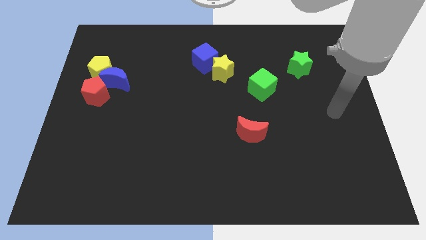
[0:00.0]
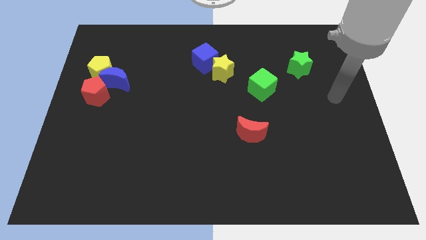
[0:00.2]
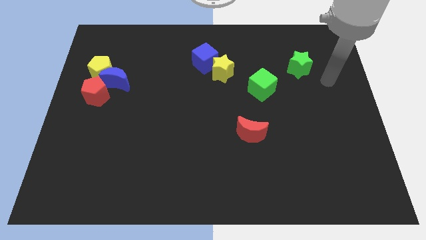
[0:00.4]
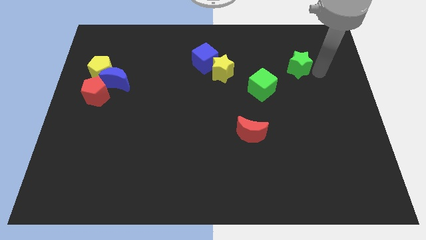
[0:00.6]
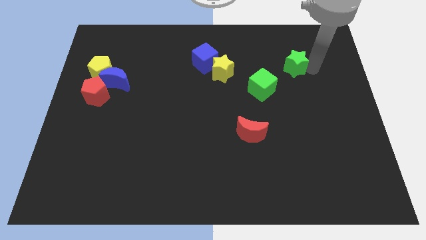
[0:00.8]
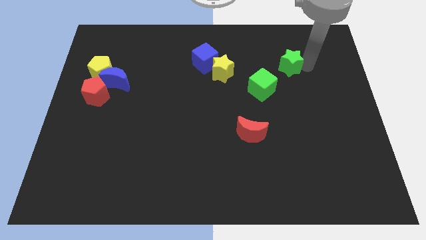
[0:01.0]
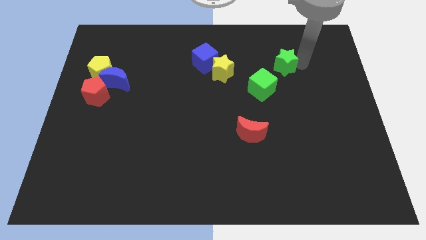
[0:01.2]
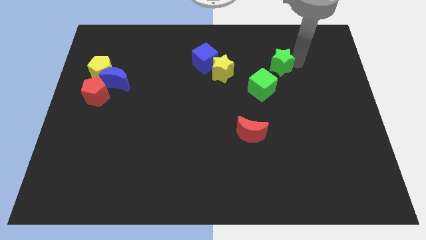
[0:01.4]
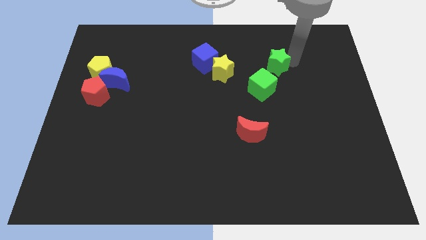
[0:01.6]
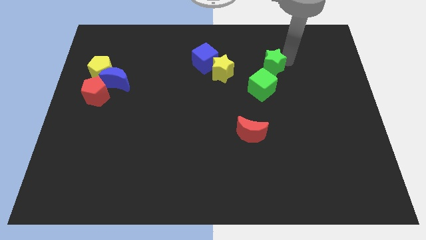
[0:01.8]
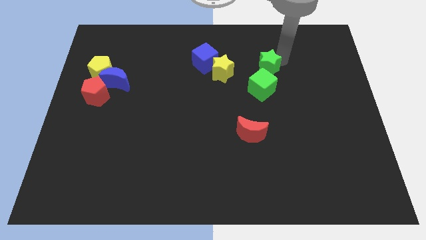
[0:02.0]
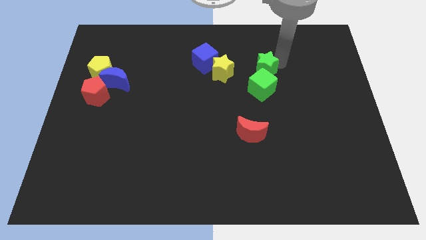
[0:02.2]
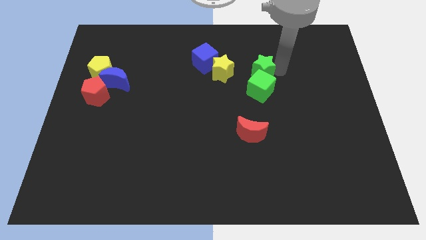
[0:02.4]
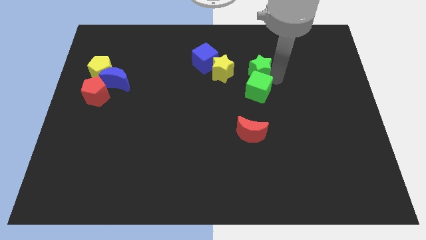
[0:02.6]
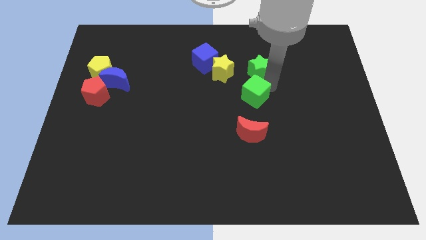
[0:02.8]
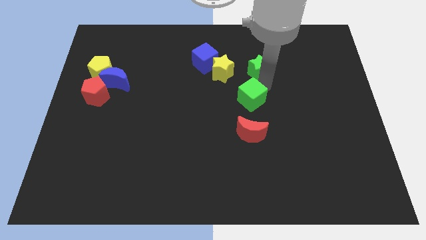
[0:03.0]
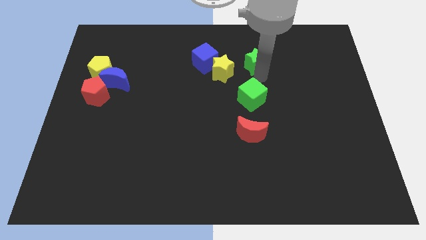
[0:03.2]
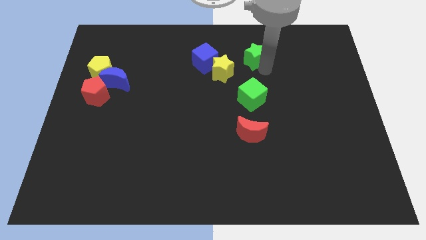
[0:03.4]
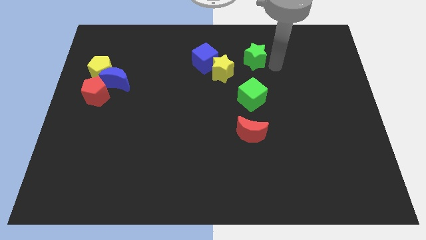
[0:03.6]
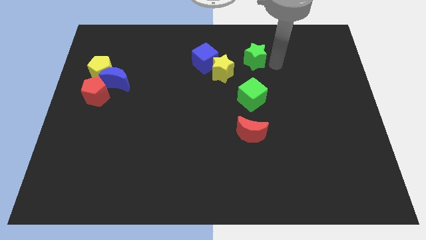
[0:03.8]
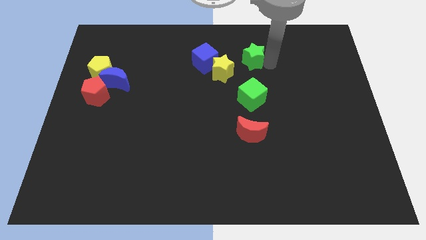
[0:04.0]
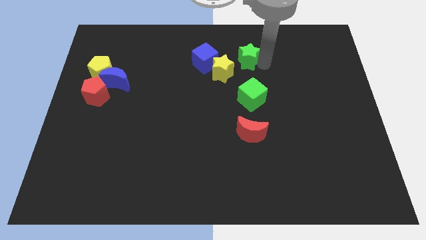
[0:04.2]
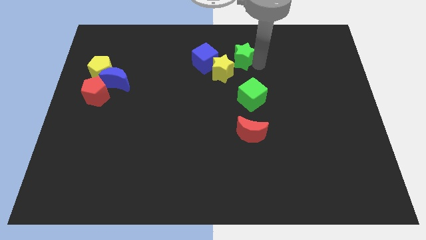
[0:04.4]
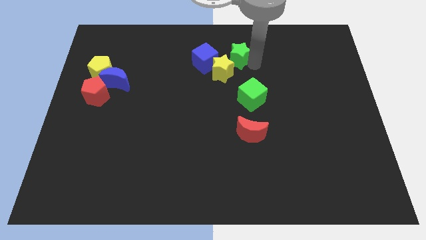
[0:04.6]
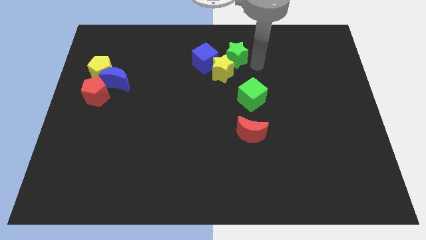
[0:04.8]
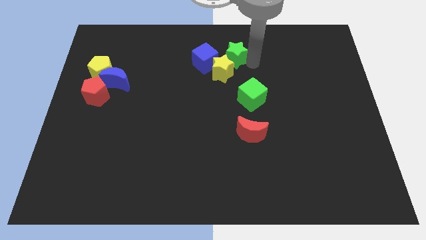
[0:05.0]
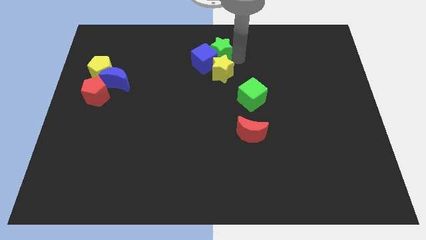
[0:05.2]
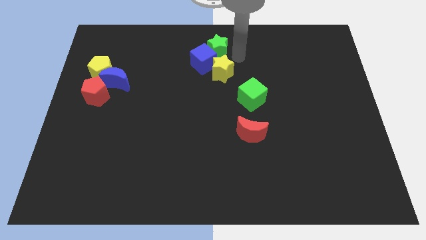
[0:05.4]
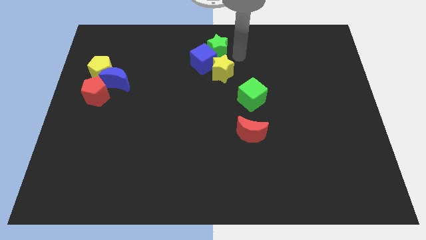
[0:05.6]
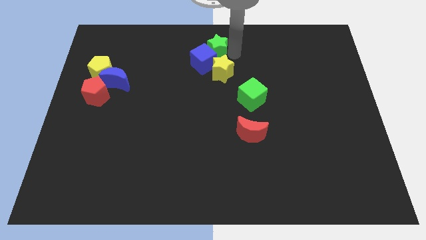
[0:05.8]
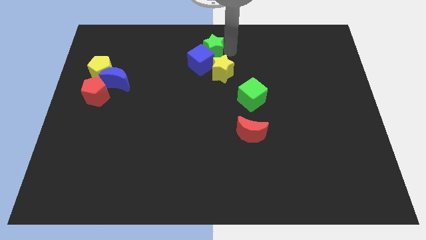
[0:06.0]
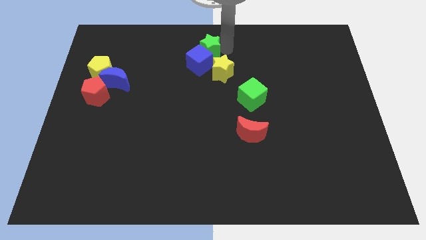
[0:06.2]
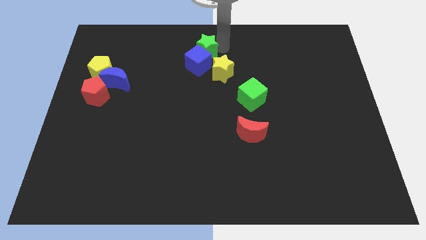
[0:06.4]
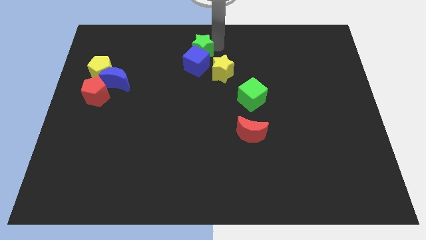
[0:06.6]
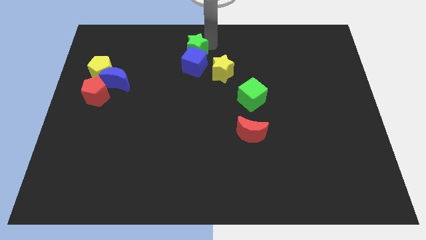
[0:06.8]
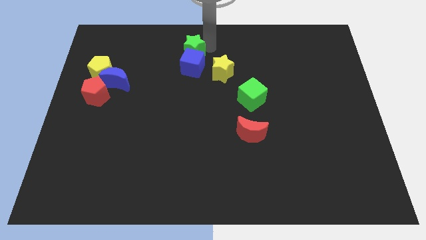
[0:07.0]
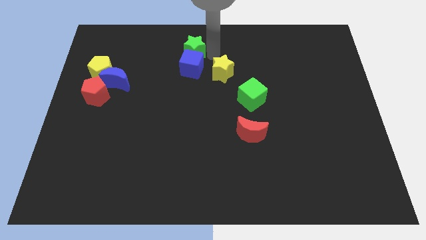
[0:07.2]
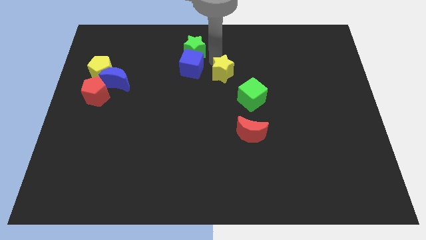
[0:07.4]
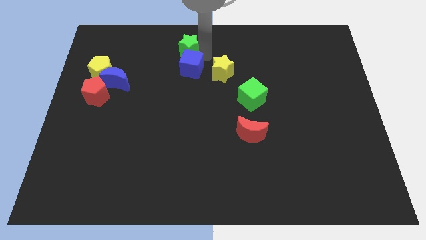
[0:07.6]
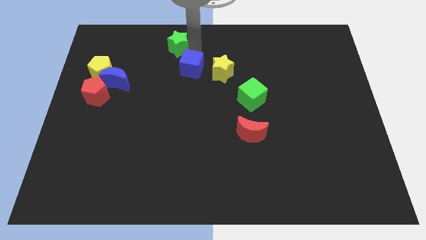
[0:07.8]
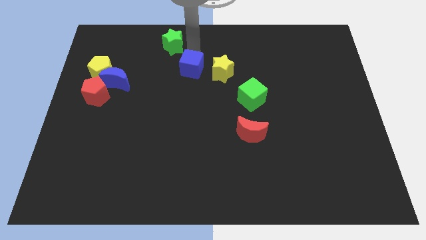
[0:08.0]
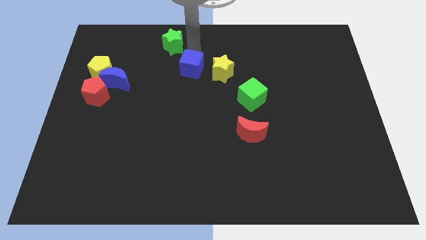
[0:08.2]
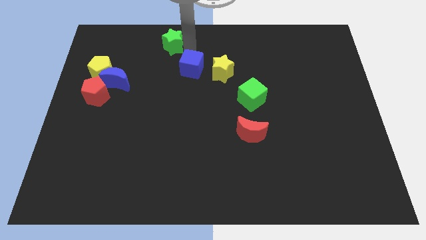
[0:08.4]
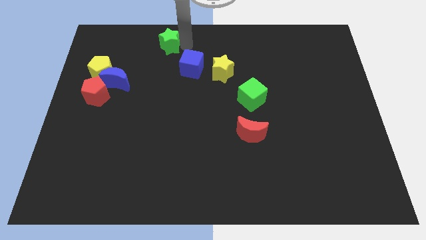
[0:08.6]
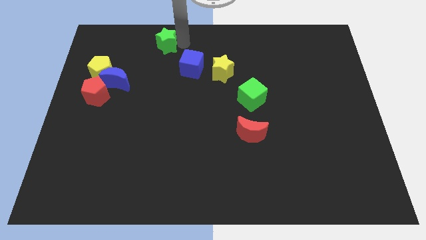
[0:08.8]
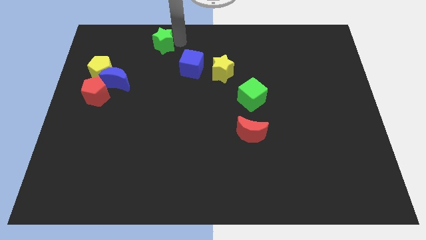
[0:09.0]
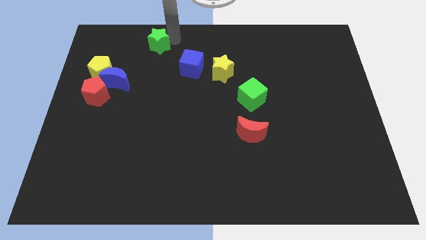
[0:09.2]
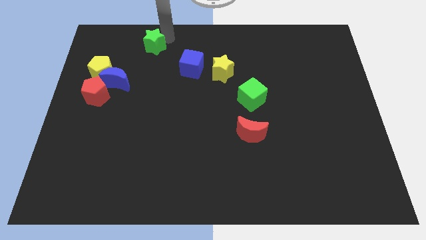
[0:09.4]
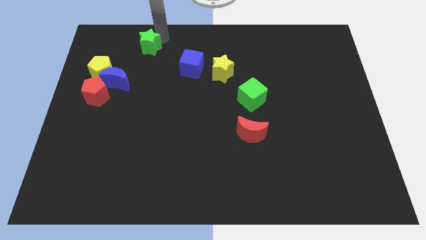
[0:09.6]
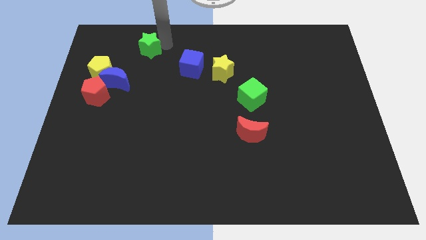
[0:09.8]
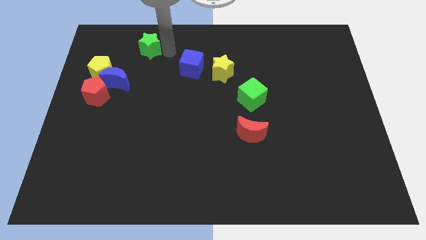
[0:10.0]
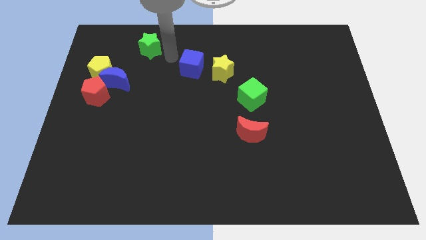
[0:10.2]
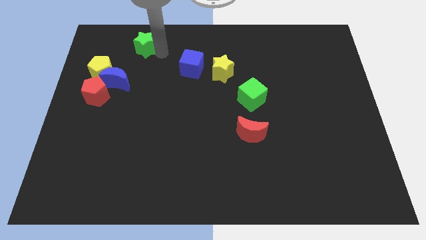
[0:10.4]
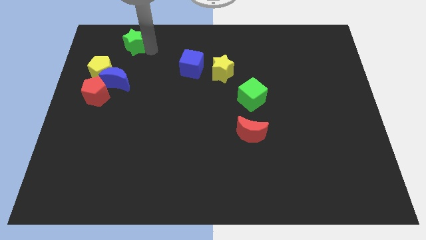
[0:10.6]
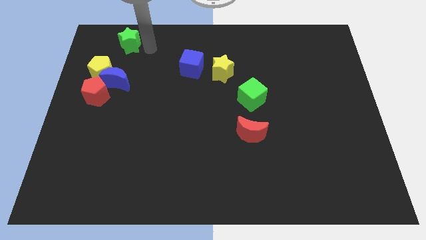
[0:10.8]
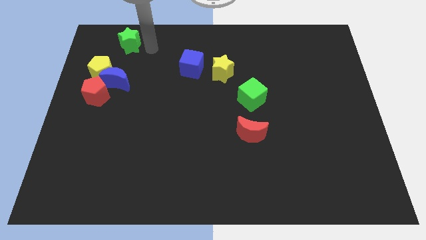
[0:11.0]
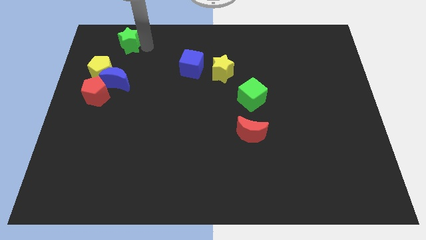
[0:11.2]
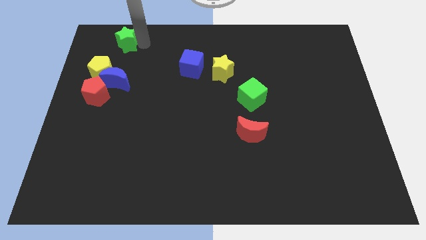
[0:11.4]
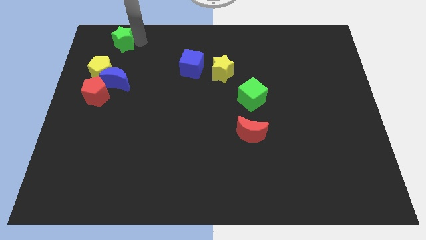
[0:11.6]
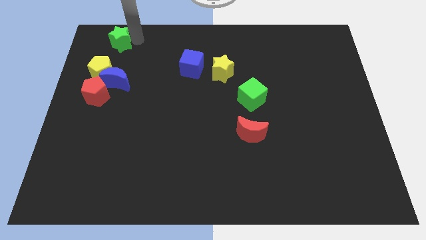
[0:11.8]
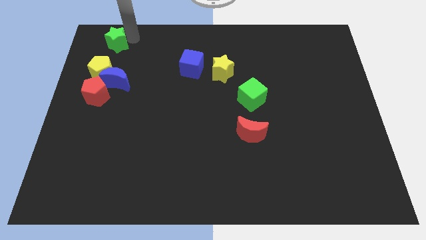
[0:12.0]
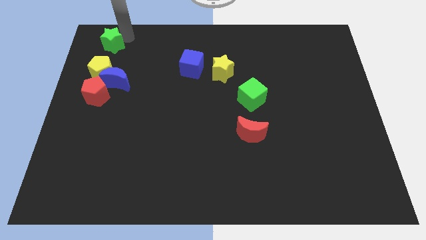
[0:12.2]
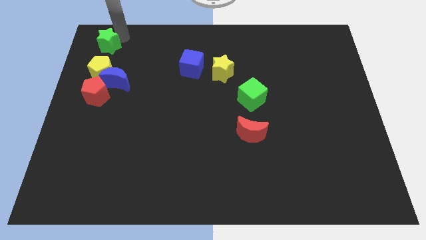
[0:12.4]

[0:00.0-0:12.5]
slide the green star to the top left corner
